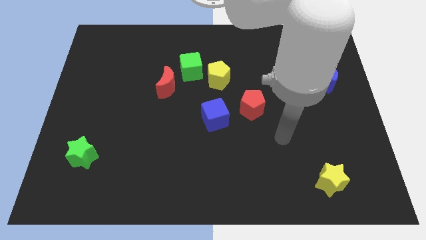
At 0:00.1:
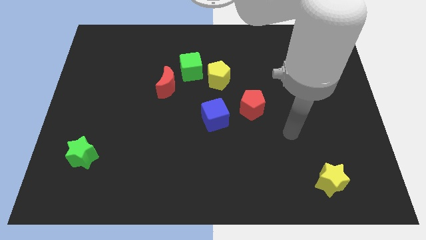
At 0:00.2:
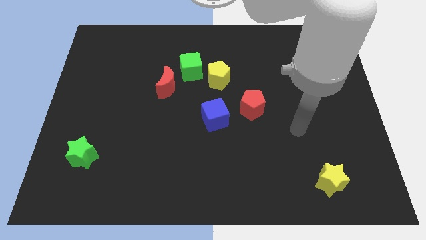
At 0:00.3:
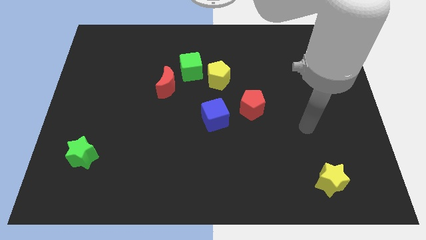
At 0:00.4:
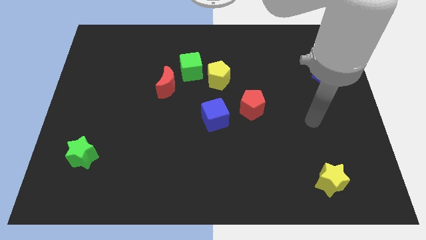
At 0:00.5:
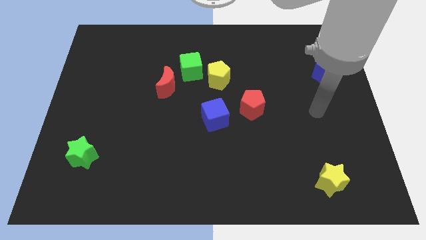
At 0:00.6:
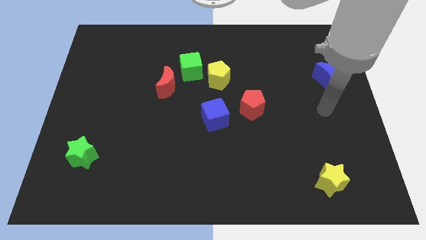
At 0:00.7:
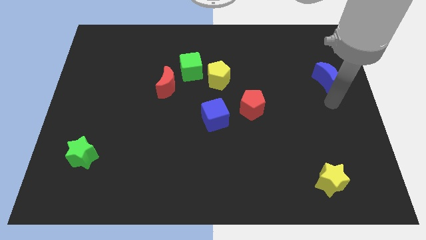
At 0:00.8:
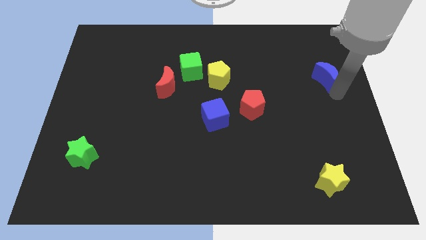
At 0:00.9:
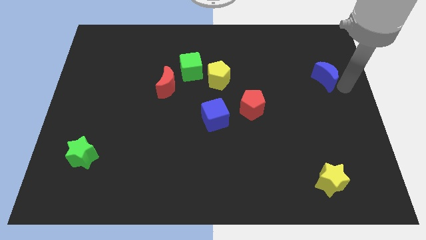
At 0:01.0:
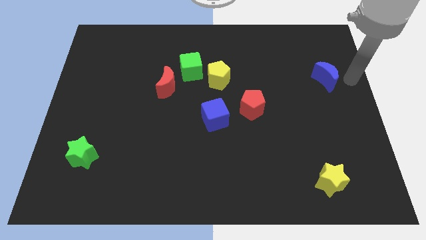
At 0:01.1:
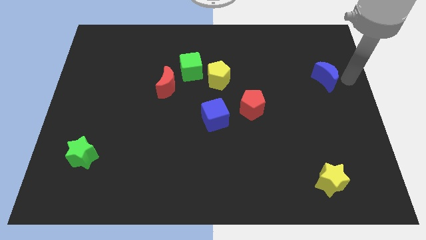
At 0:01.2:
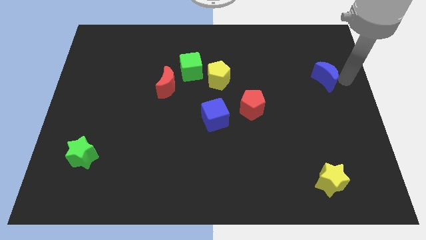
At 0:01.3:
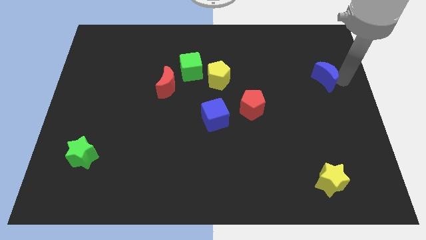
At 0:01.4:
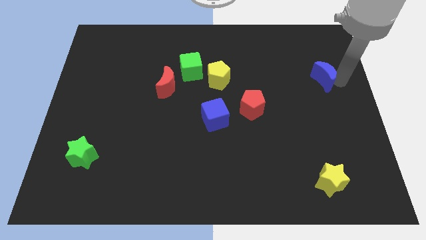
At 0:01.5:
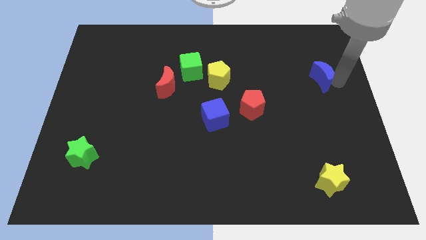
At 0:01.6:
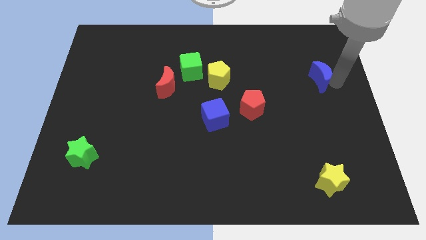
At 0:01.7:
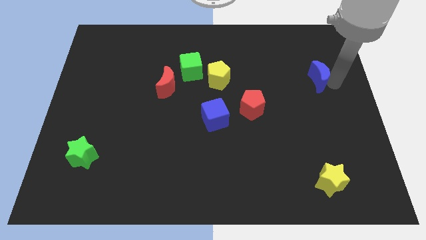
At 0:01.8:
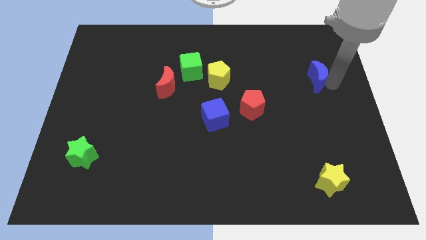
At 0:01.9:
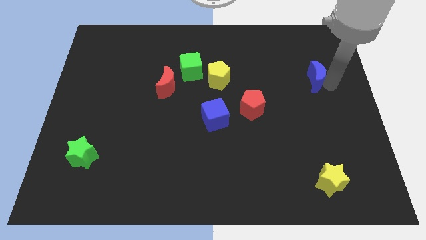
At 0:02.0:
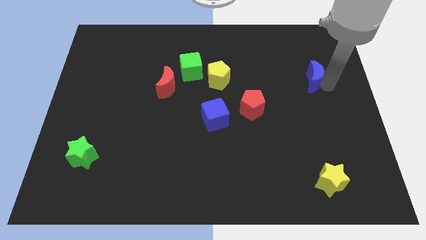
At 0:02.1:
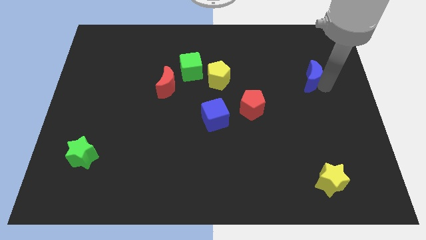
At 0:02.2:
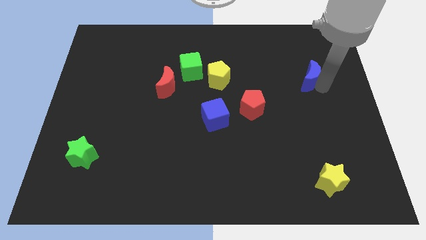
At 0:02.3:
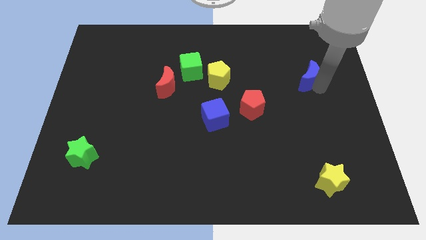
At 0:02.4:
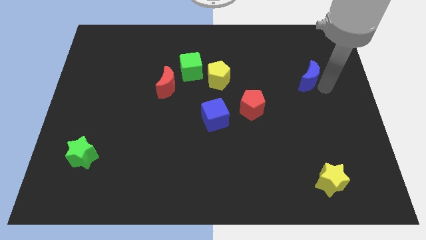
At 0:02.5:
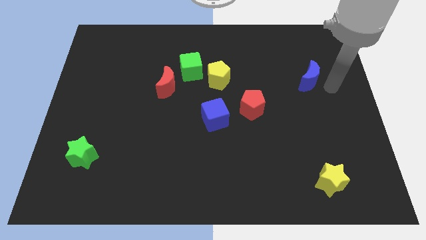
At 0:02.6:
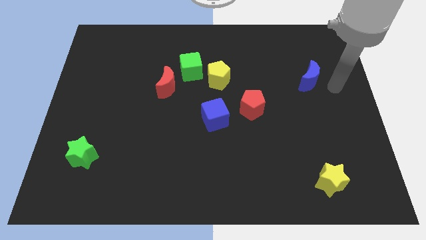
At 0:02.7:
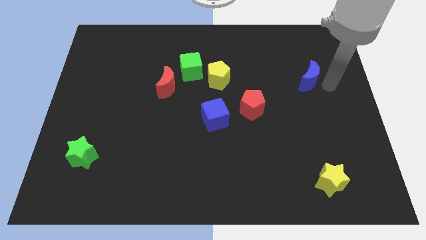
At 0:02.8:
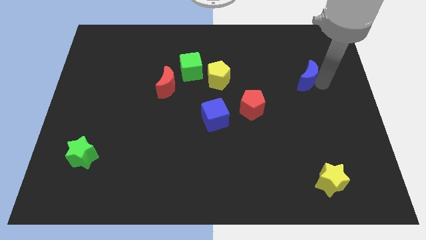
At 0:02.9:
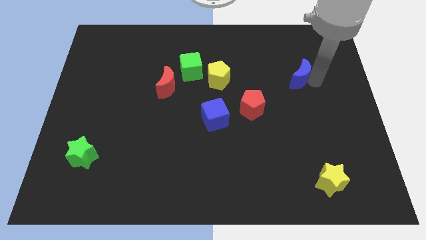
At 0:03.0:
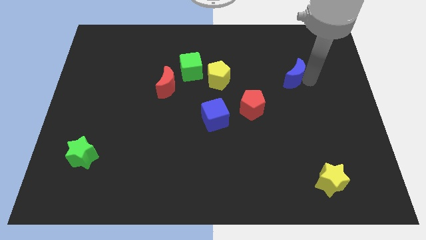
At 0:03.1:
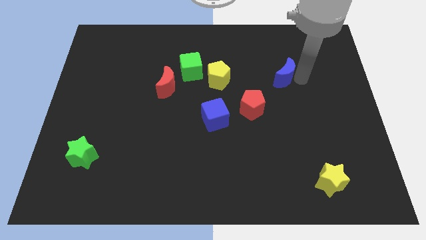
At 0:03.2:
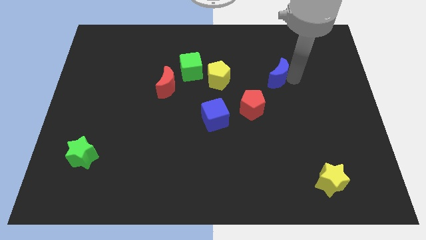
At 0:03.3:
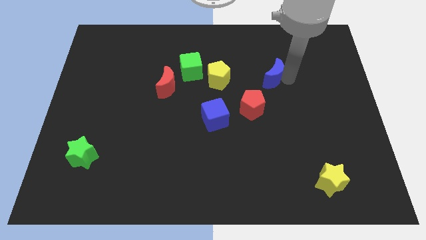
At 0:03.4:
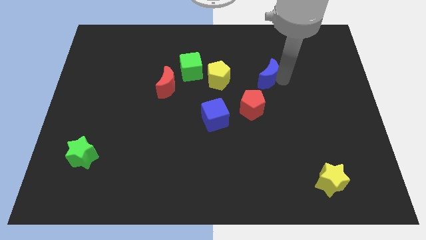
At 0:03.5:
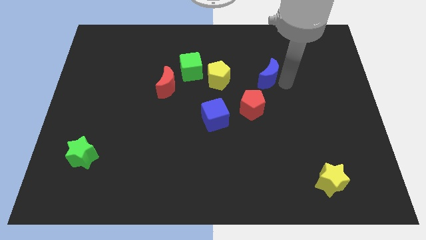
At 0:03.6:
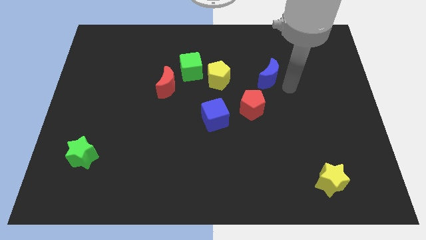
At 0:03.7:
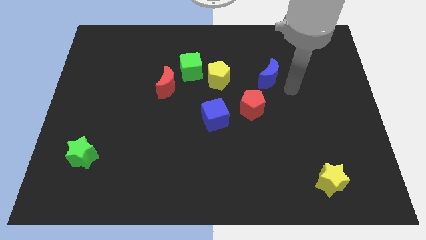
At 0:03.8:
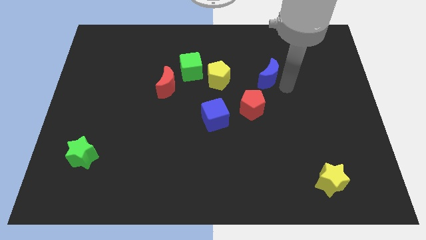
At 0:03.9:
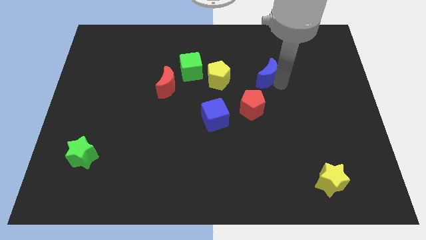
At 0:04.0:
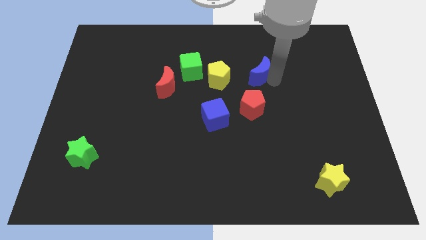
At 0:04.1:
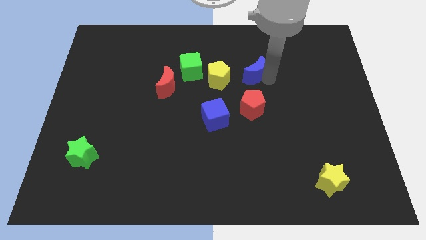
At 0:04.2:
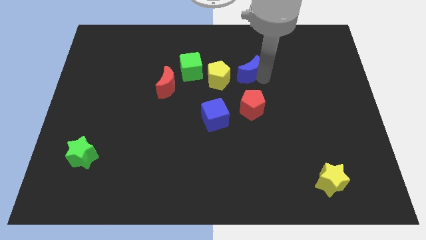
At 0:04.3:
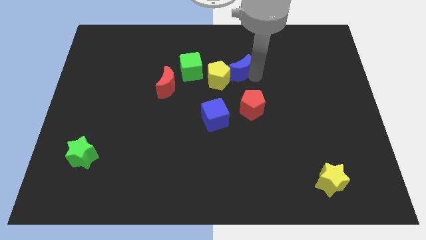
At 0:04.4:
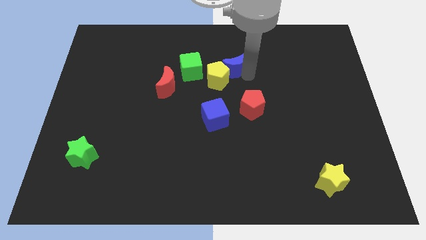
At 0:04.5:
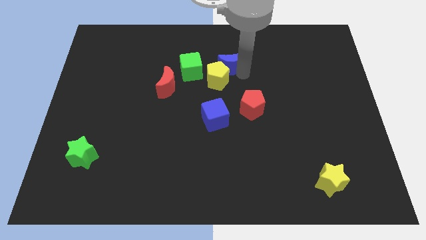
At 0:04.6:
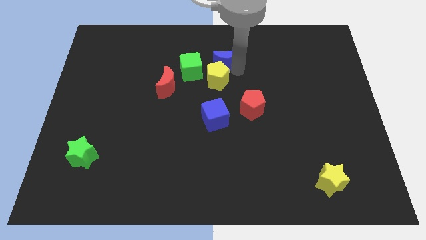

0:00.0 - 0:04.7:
move the blue moon to the top right of the green cube

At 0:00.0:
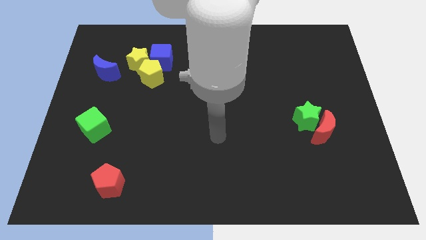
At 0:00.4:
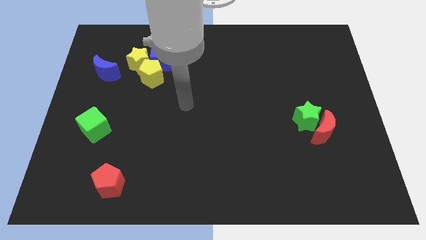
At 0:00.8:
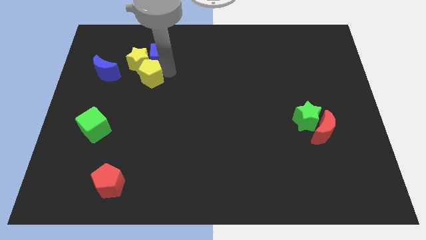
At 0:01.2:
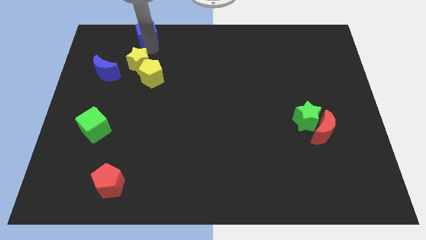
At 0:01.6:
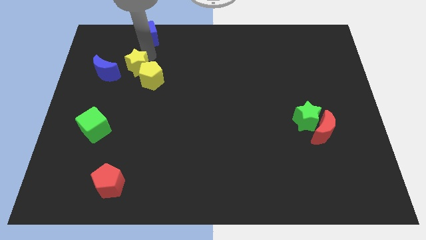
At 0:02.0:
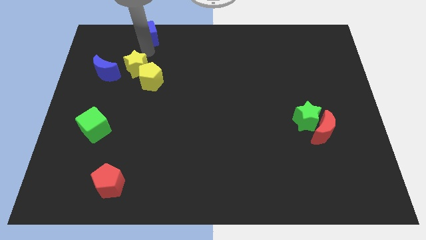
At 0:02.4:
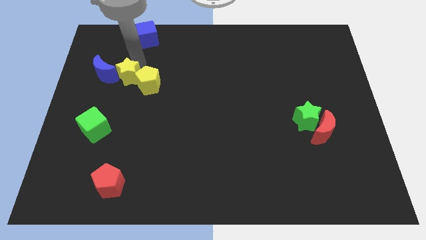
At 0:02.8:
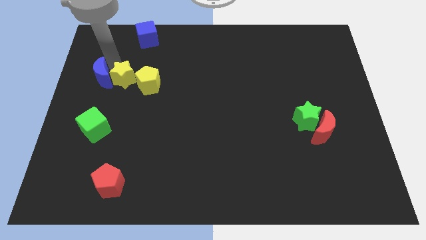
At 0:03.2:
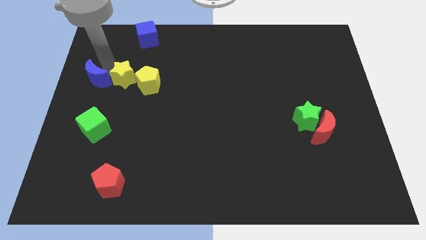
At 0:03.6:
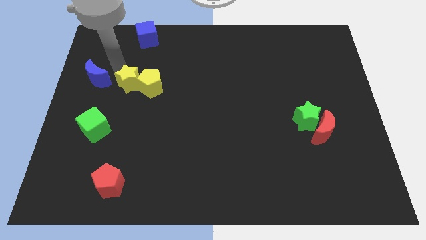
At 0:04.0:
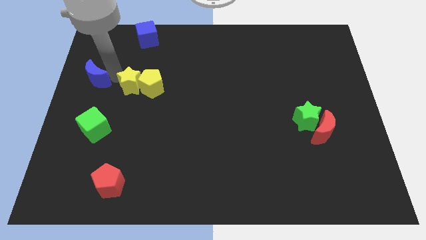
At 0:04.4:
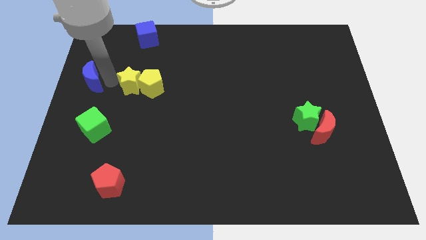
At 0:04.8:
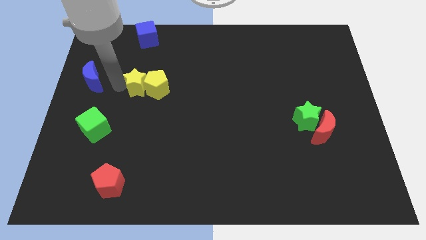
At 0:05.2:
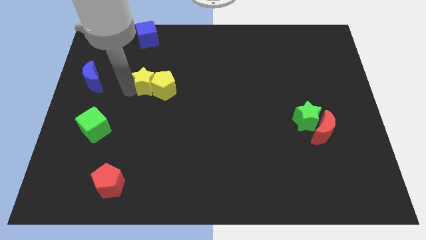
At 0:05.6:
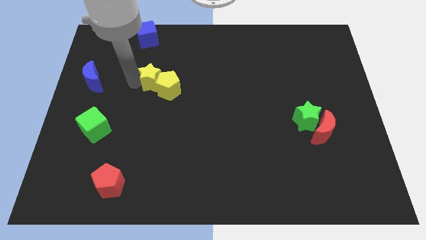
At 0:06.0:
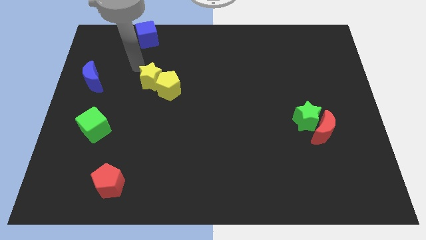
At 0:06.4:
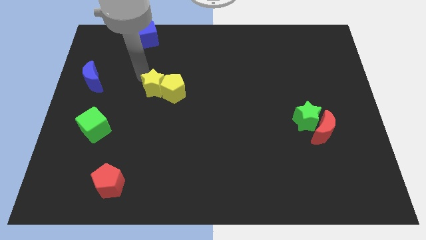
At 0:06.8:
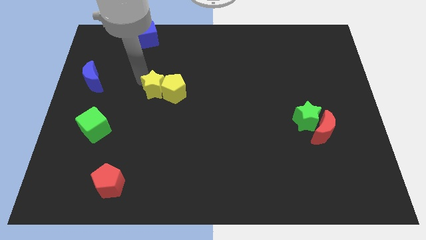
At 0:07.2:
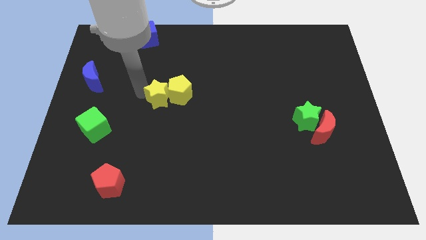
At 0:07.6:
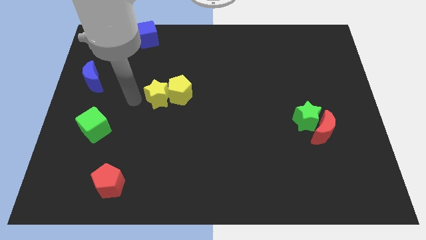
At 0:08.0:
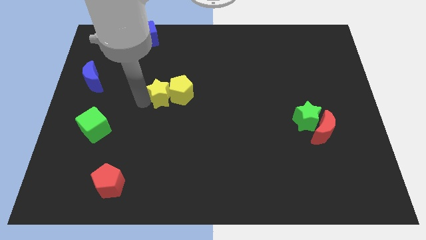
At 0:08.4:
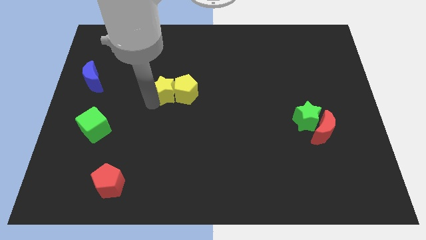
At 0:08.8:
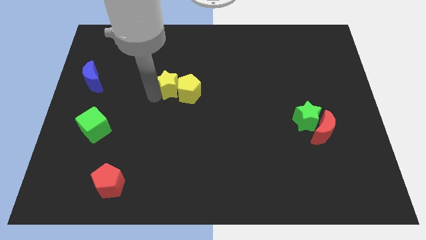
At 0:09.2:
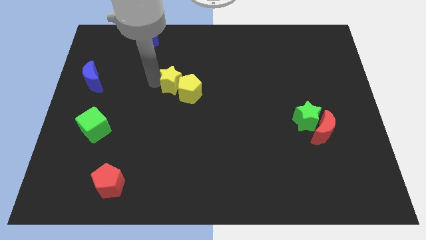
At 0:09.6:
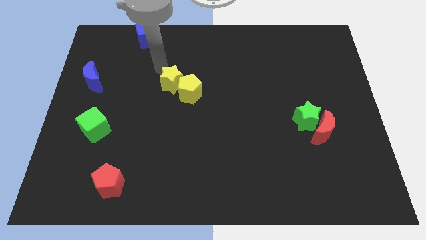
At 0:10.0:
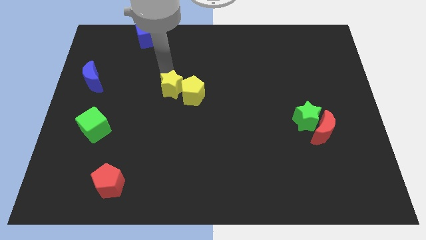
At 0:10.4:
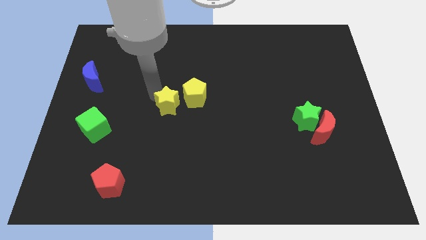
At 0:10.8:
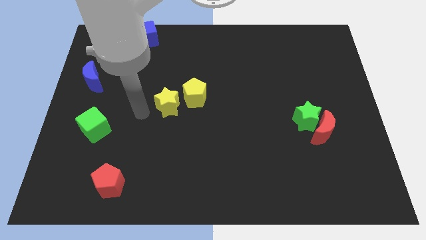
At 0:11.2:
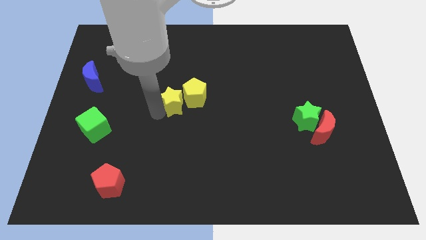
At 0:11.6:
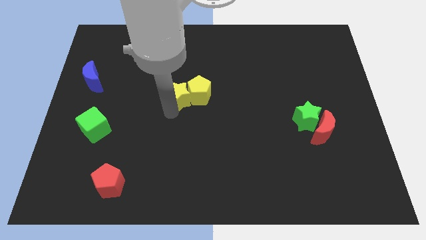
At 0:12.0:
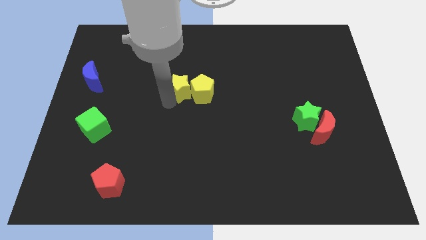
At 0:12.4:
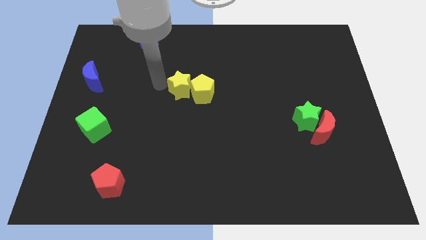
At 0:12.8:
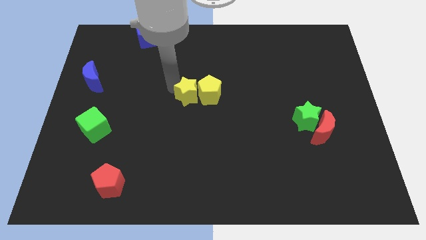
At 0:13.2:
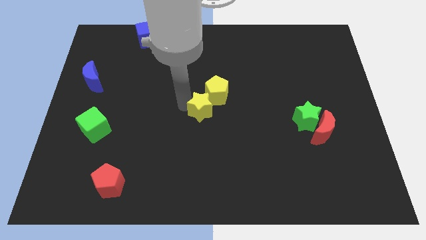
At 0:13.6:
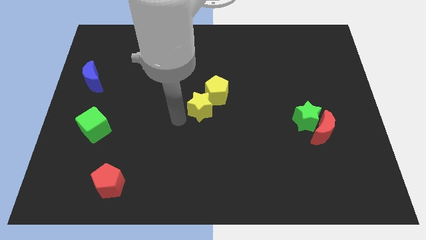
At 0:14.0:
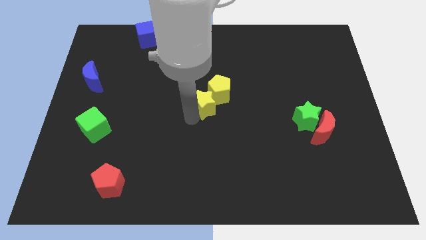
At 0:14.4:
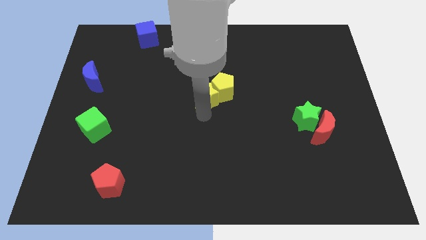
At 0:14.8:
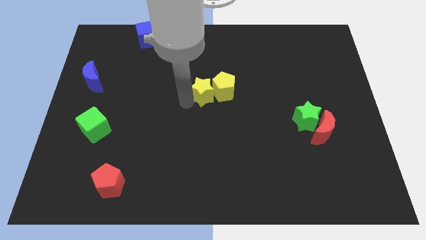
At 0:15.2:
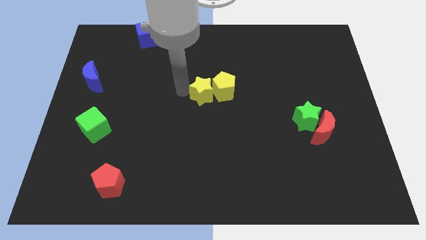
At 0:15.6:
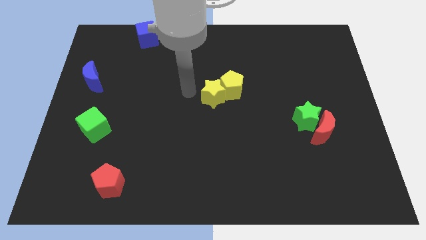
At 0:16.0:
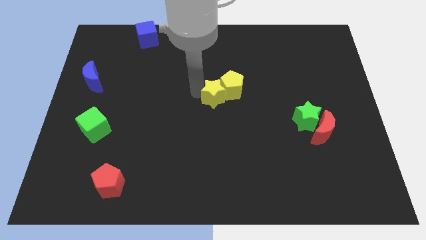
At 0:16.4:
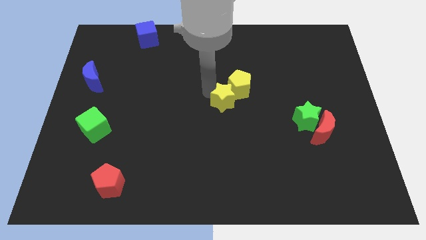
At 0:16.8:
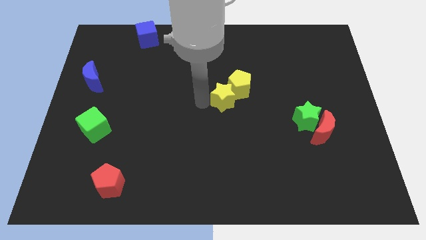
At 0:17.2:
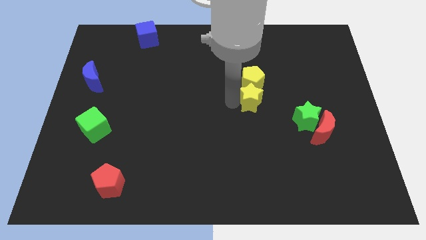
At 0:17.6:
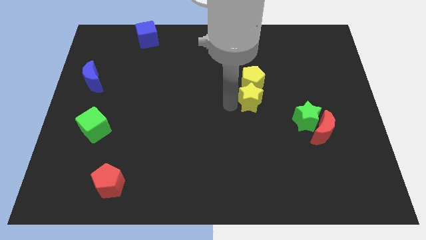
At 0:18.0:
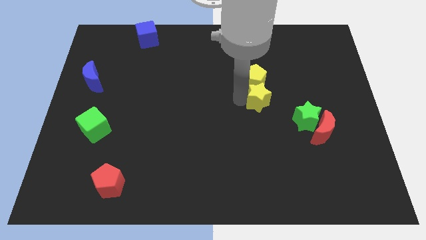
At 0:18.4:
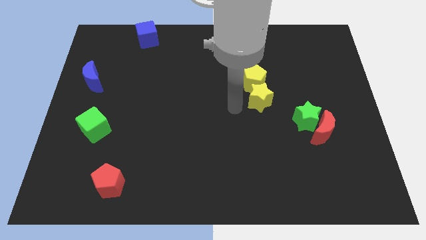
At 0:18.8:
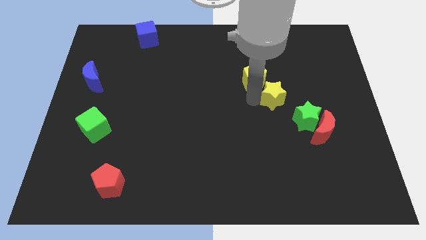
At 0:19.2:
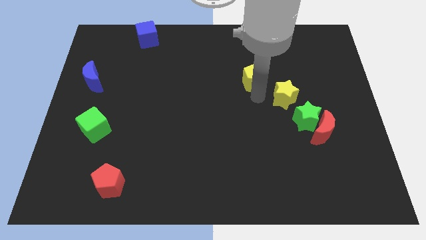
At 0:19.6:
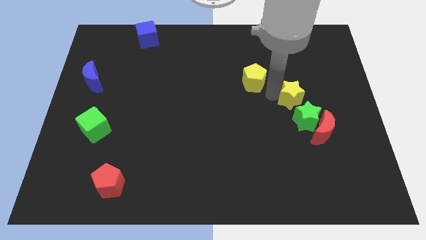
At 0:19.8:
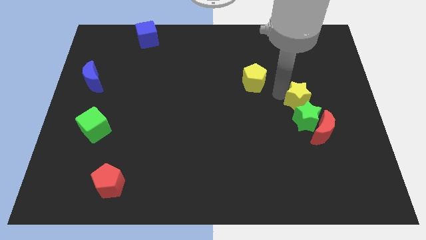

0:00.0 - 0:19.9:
push the yellow star diagonally up and to the right of the green star
